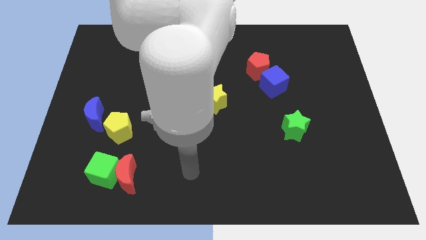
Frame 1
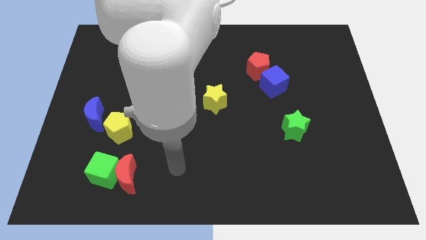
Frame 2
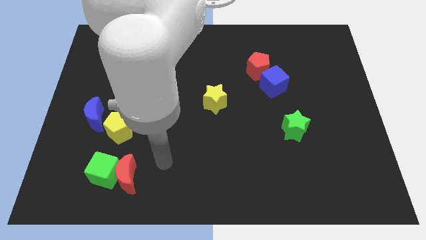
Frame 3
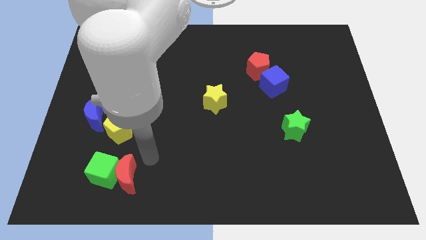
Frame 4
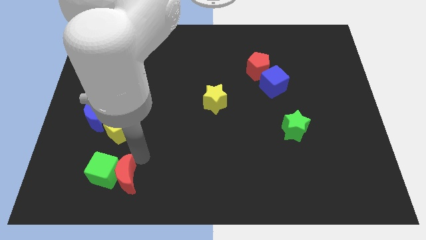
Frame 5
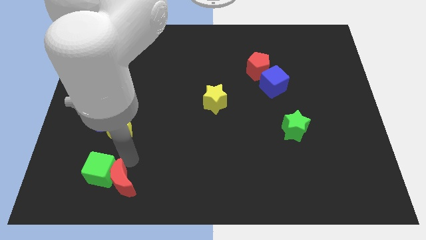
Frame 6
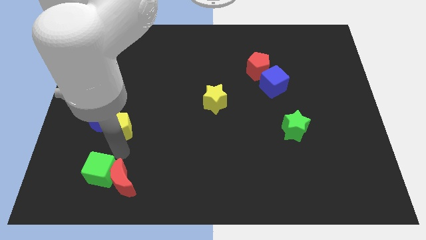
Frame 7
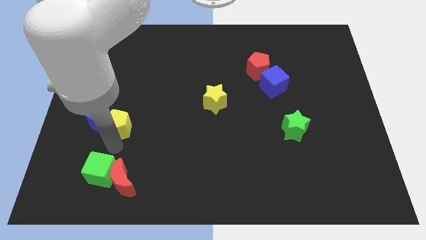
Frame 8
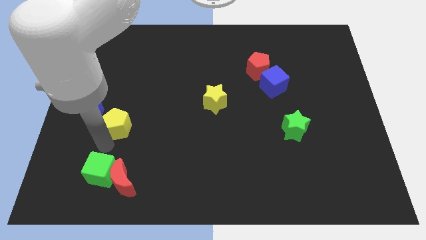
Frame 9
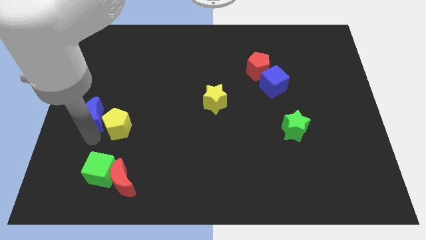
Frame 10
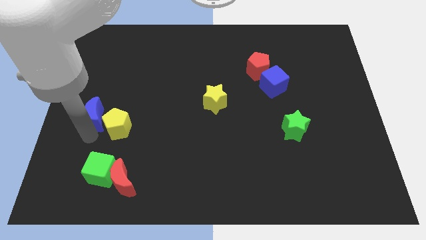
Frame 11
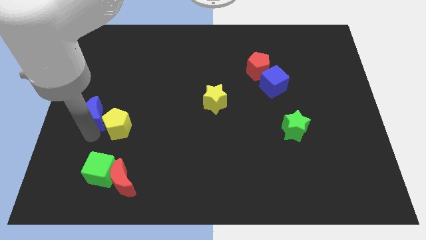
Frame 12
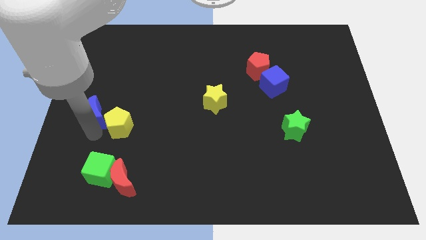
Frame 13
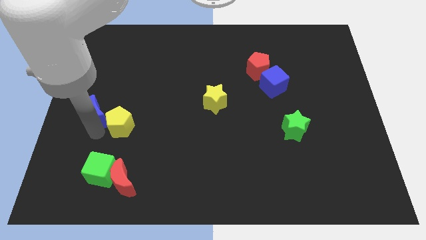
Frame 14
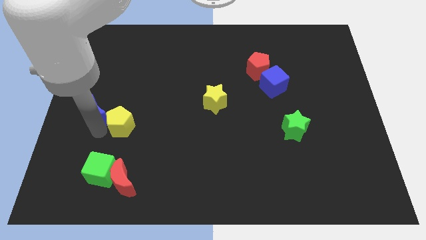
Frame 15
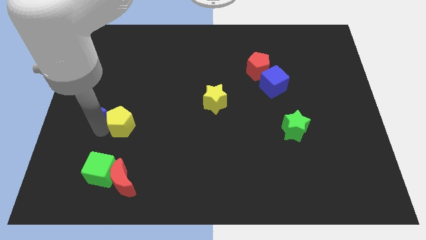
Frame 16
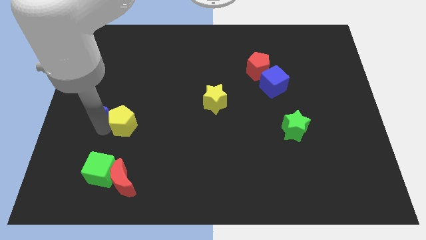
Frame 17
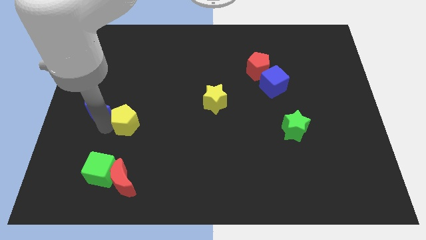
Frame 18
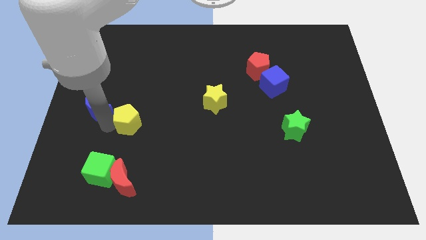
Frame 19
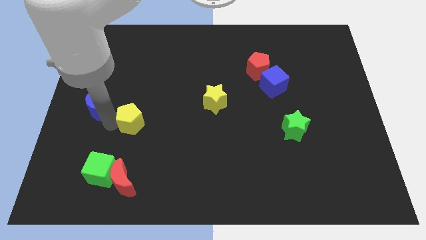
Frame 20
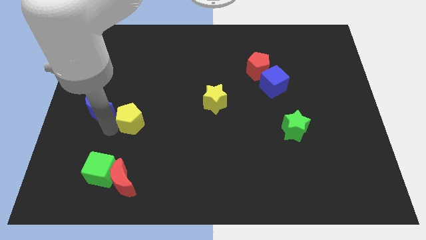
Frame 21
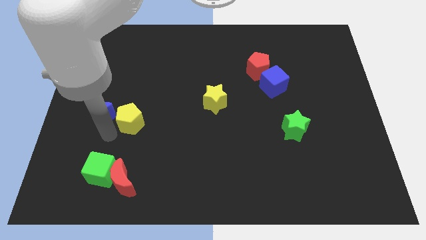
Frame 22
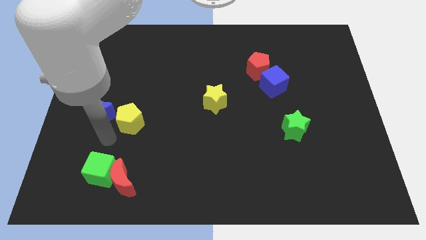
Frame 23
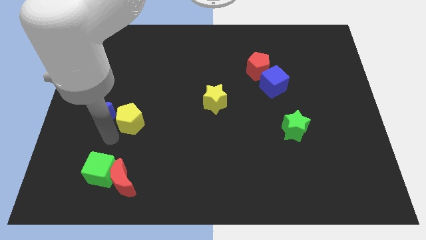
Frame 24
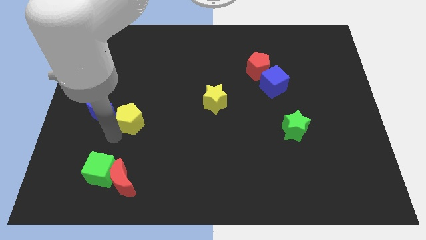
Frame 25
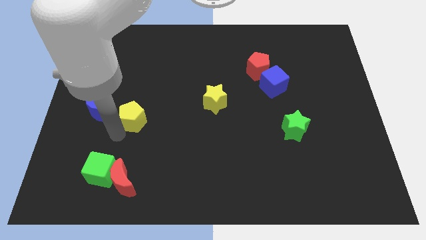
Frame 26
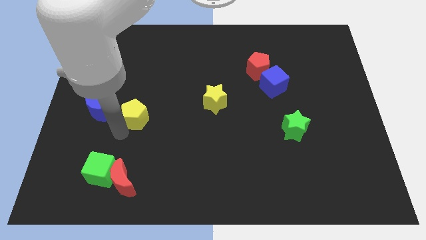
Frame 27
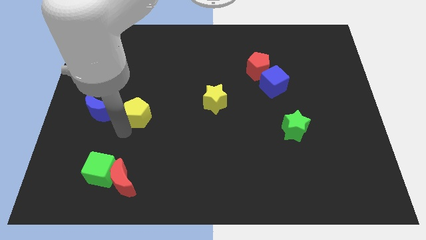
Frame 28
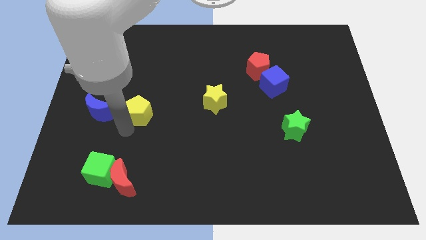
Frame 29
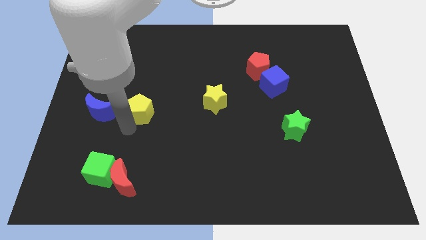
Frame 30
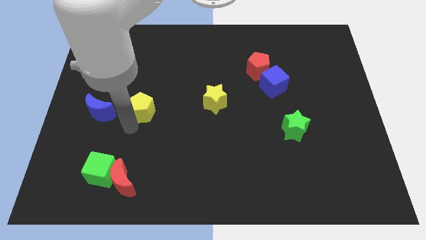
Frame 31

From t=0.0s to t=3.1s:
push the yellow pentagon up and right a bit

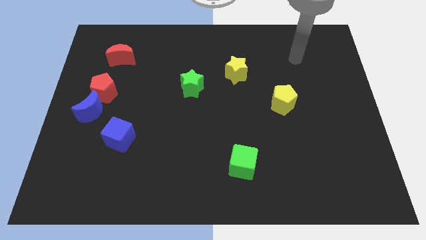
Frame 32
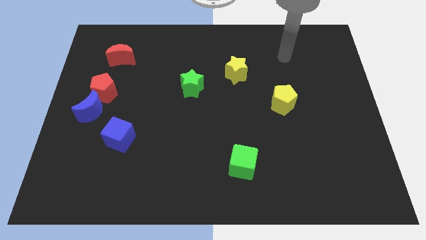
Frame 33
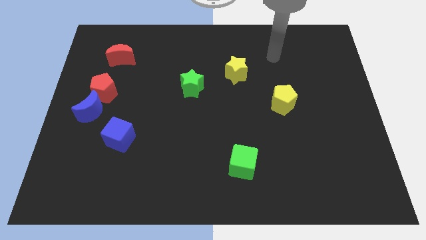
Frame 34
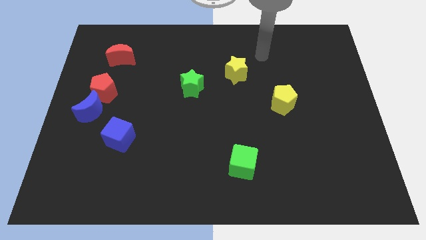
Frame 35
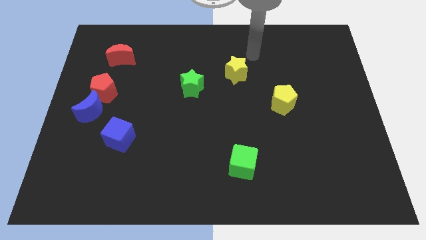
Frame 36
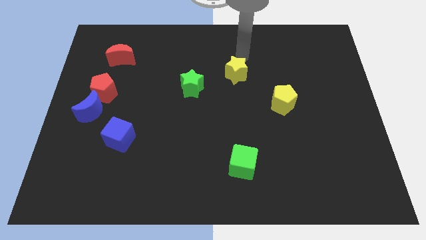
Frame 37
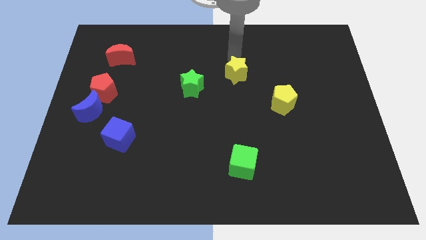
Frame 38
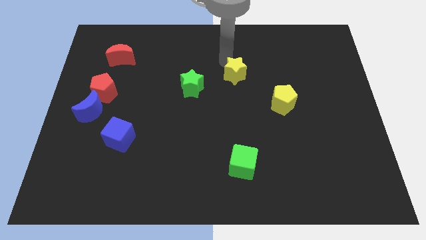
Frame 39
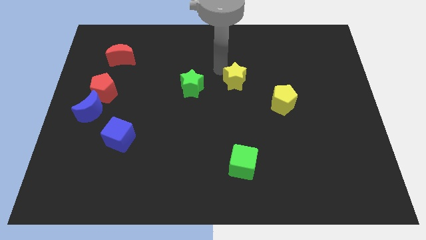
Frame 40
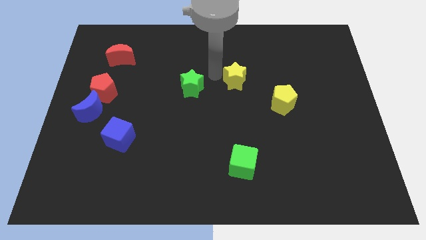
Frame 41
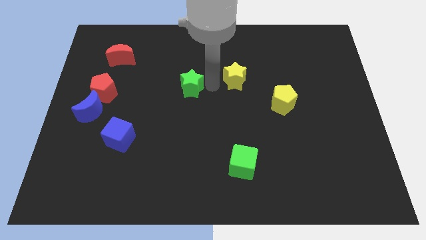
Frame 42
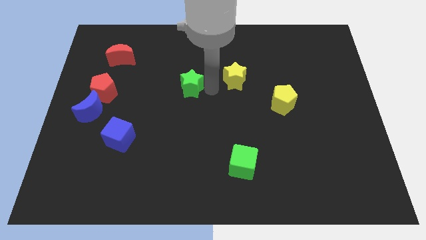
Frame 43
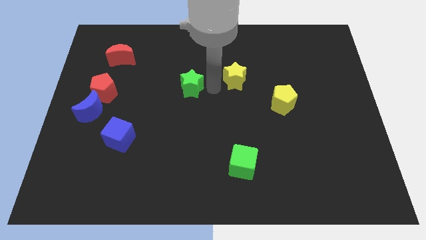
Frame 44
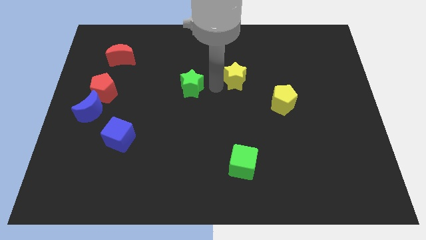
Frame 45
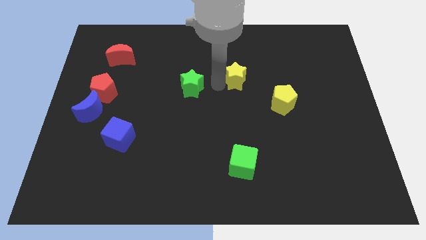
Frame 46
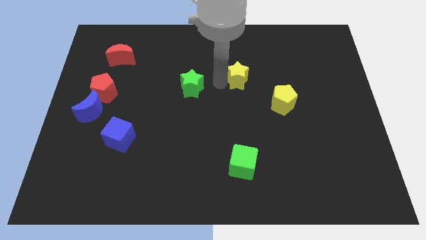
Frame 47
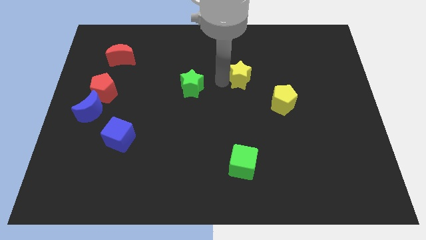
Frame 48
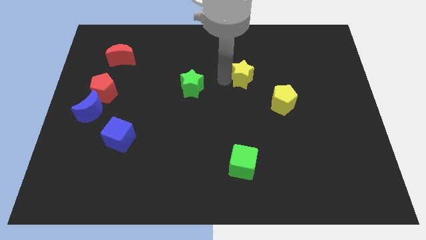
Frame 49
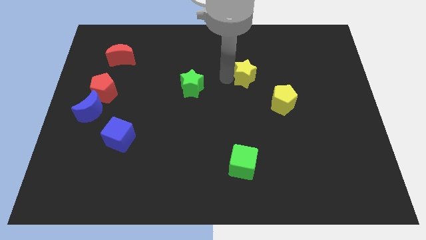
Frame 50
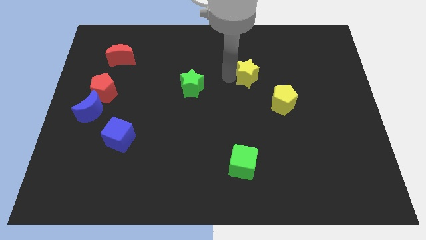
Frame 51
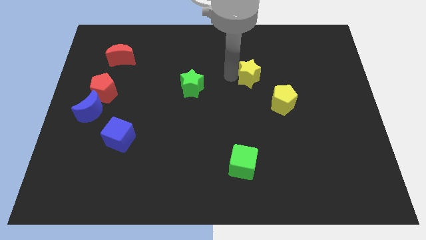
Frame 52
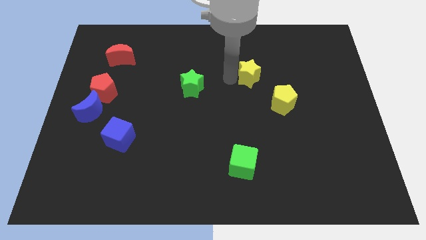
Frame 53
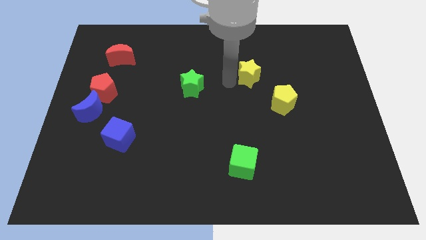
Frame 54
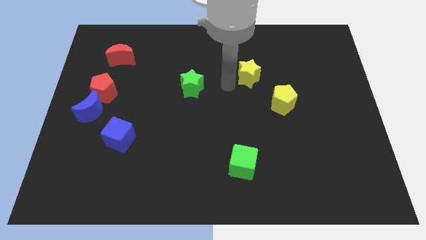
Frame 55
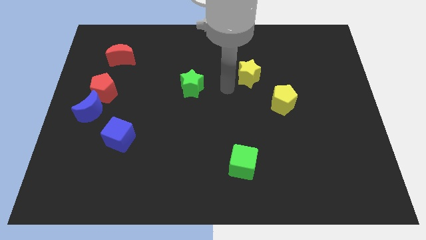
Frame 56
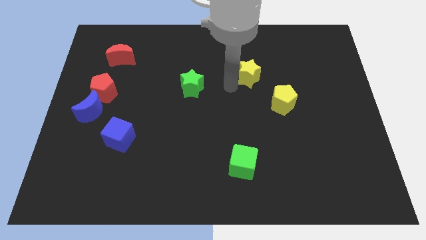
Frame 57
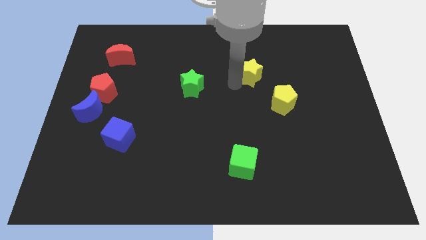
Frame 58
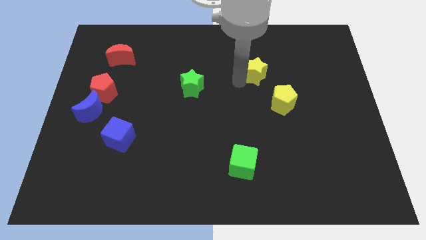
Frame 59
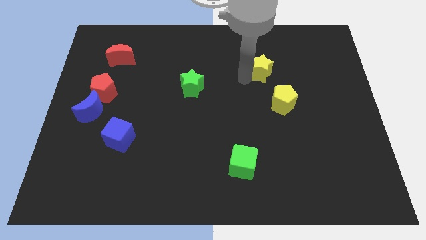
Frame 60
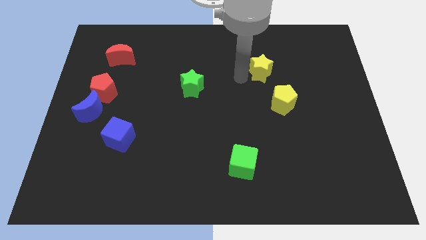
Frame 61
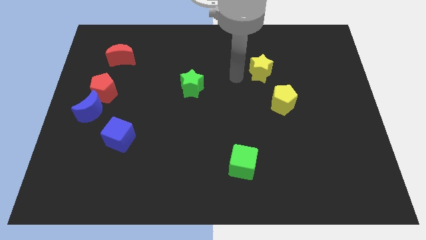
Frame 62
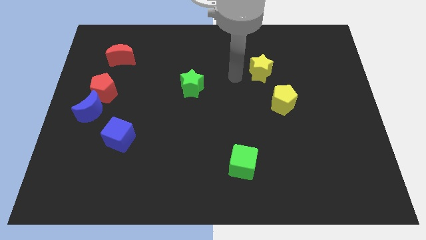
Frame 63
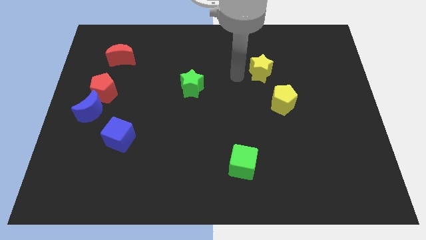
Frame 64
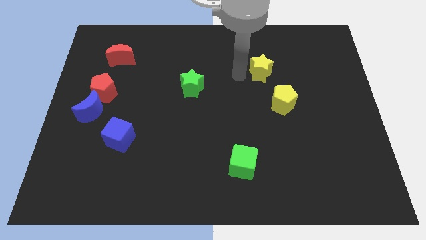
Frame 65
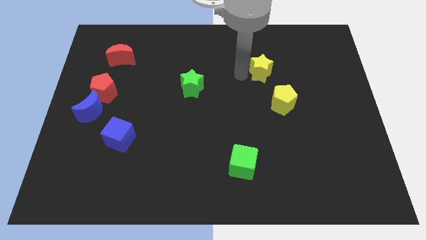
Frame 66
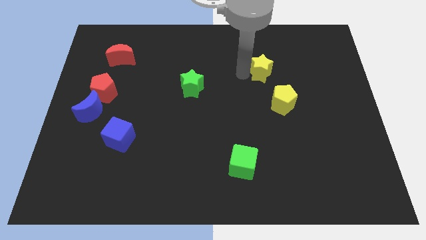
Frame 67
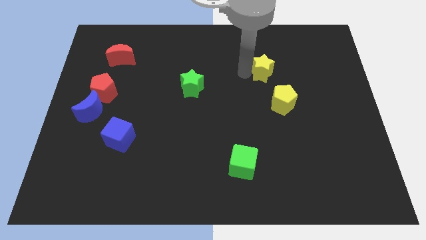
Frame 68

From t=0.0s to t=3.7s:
slide the yellow star right somewhat

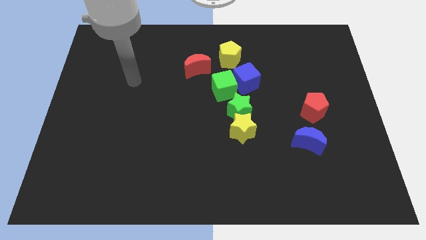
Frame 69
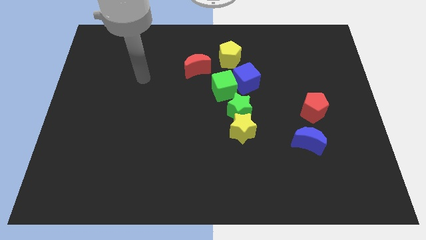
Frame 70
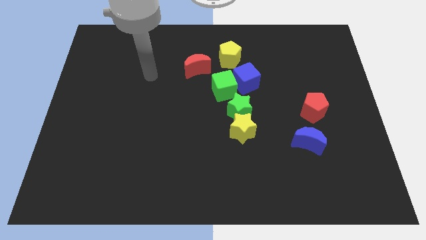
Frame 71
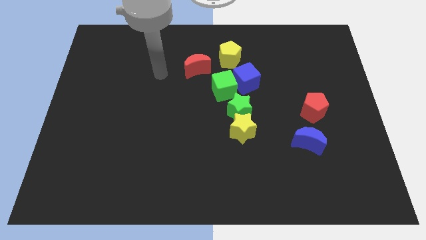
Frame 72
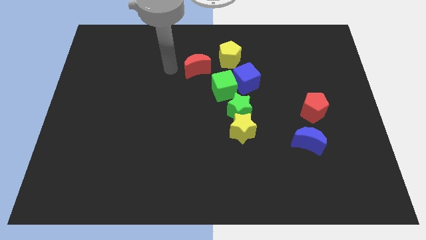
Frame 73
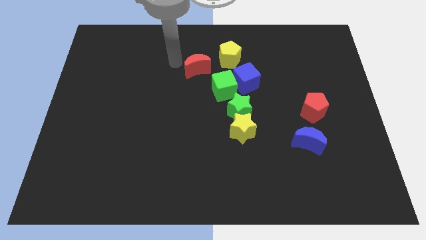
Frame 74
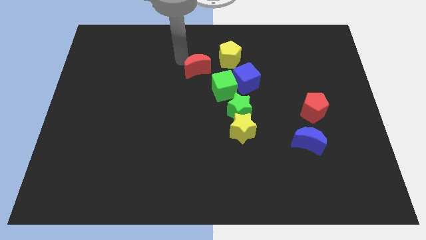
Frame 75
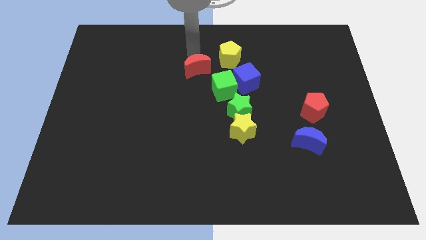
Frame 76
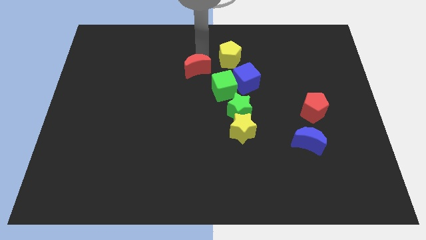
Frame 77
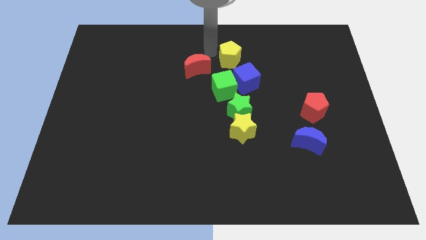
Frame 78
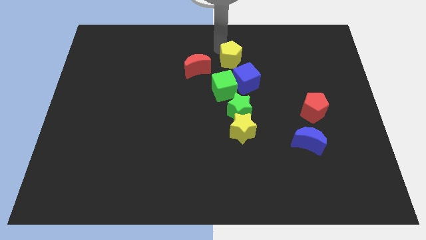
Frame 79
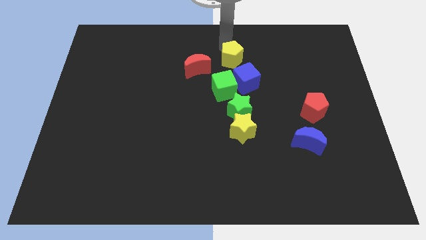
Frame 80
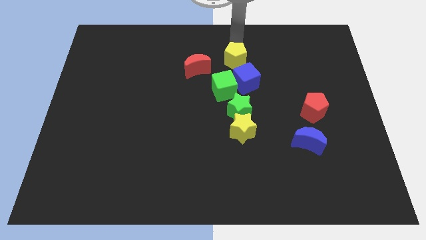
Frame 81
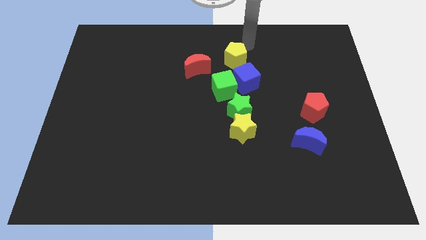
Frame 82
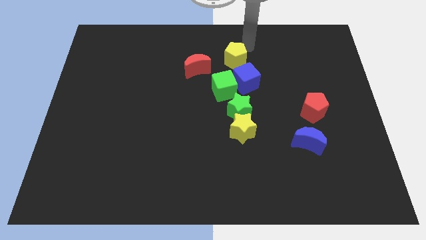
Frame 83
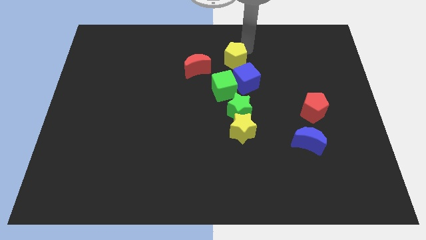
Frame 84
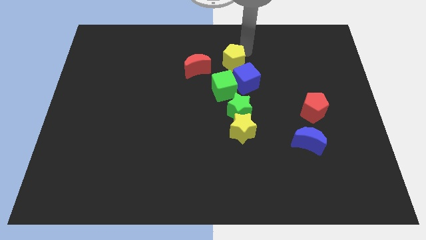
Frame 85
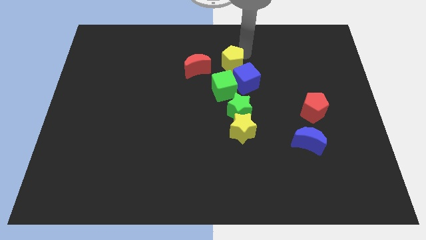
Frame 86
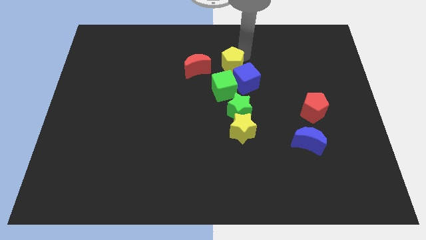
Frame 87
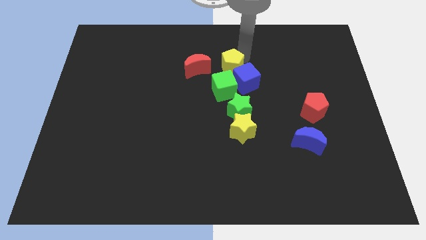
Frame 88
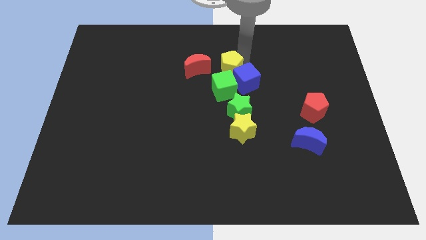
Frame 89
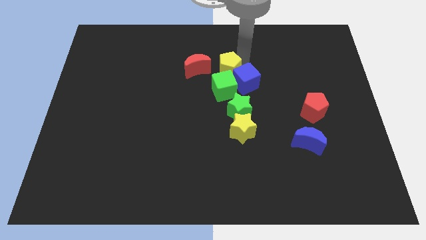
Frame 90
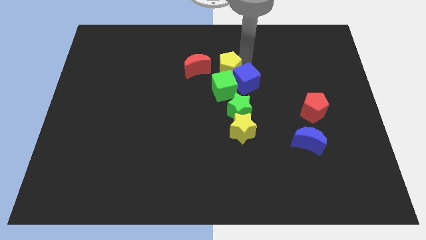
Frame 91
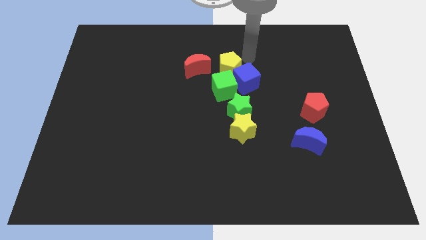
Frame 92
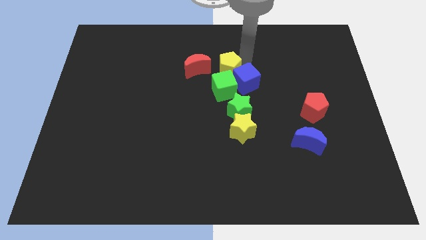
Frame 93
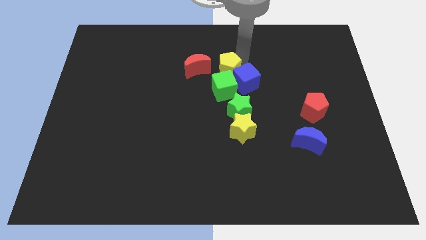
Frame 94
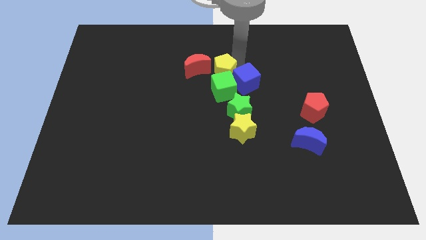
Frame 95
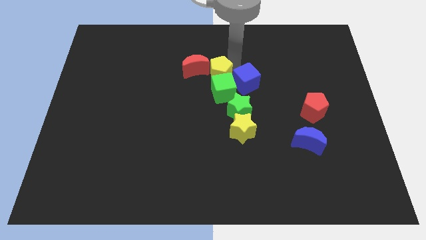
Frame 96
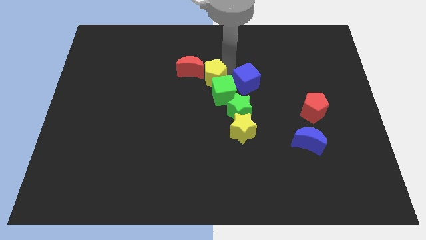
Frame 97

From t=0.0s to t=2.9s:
push the yellow pentagon down and to the left diagonally somewhat
